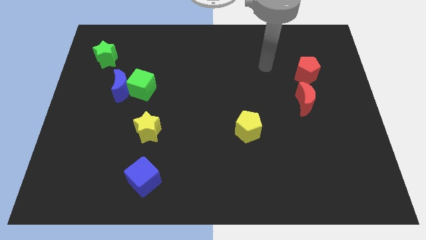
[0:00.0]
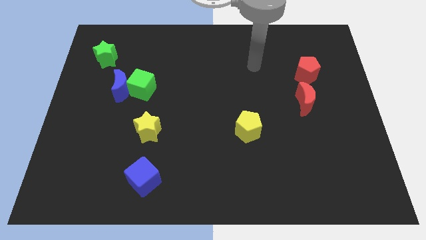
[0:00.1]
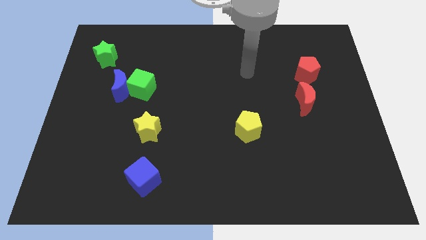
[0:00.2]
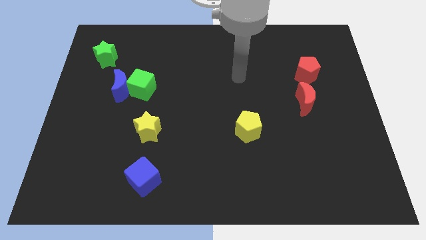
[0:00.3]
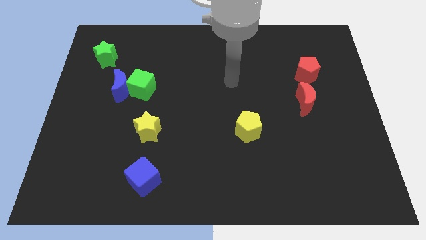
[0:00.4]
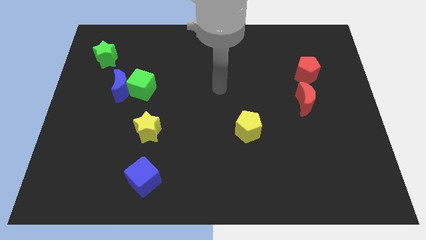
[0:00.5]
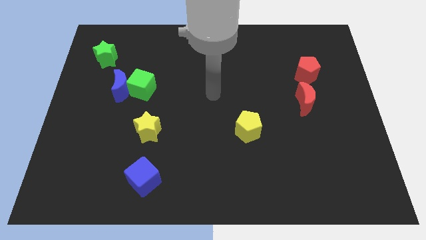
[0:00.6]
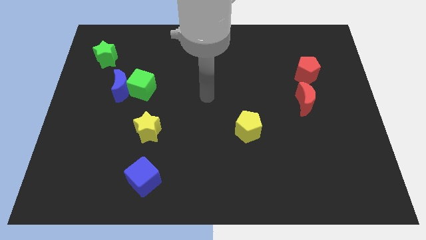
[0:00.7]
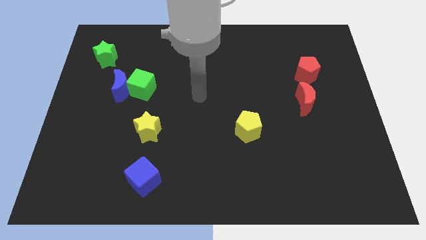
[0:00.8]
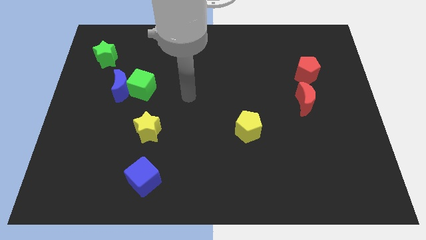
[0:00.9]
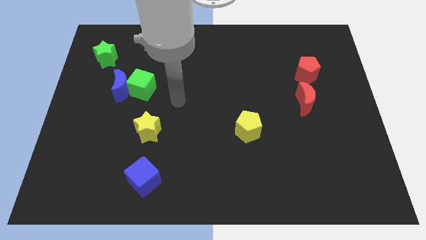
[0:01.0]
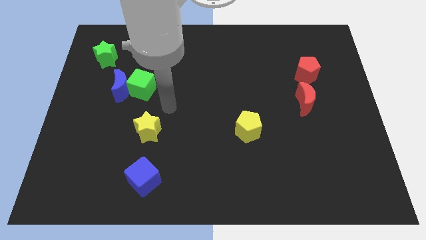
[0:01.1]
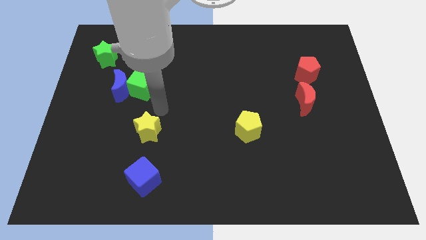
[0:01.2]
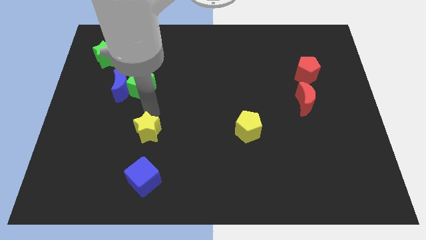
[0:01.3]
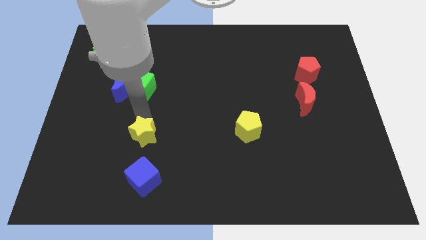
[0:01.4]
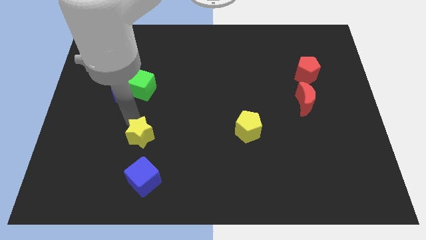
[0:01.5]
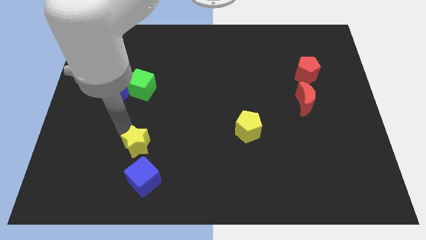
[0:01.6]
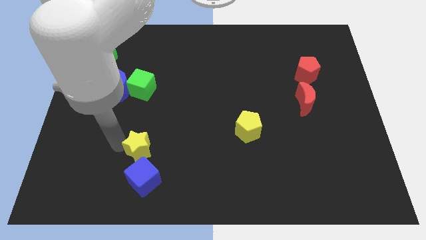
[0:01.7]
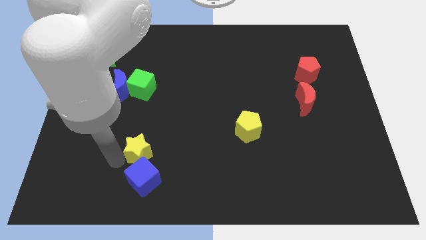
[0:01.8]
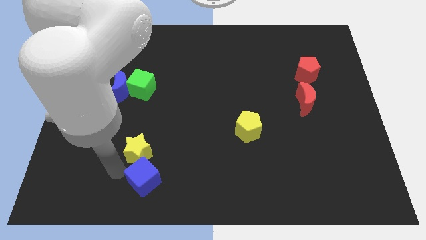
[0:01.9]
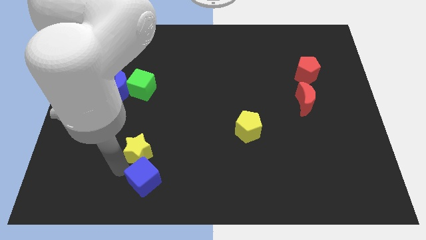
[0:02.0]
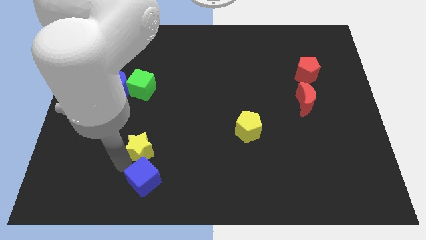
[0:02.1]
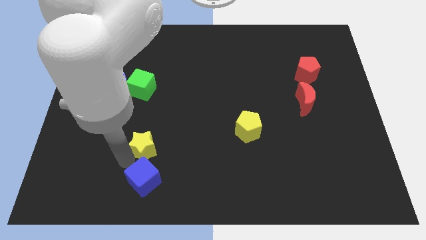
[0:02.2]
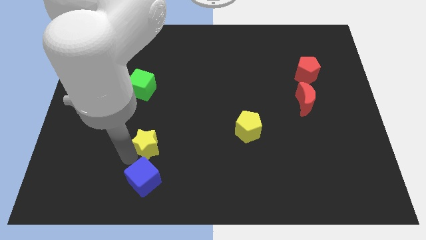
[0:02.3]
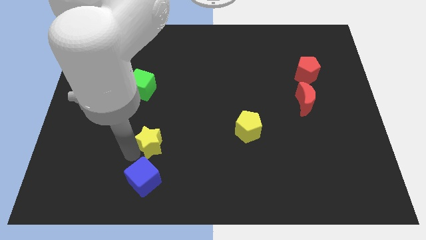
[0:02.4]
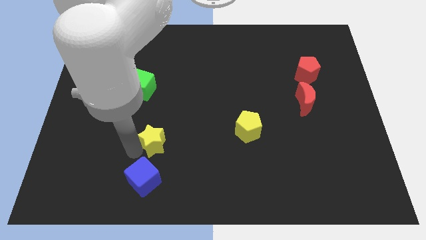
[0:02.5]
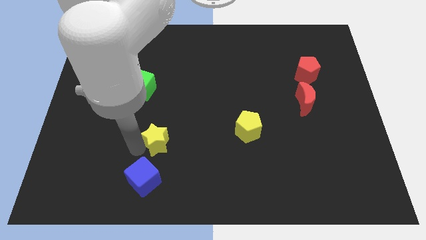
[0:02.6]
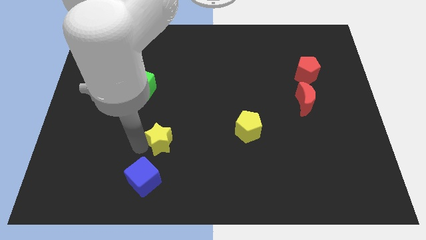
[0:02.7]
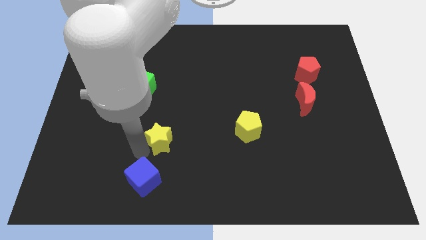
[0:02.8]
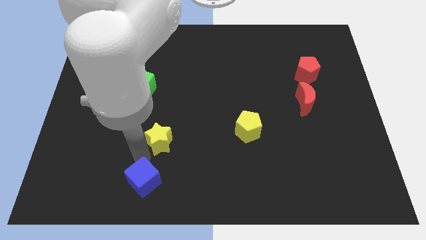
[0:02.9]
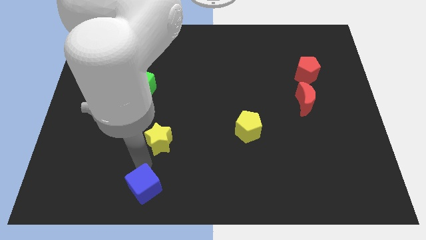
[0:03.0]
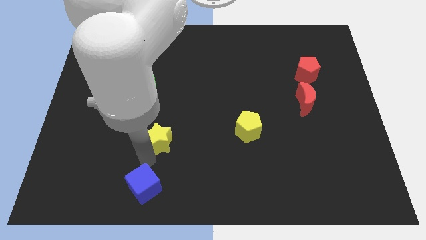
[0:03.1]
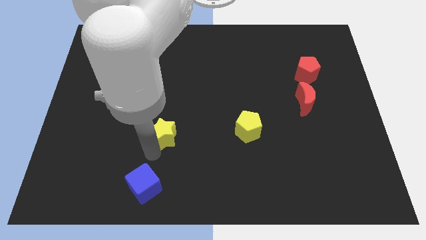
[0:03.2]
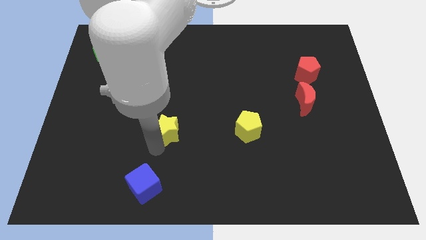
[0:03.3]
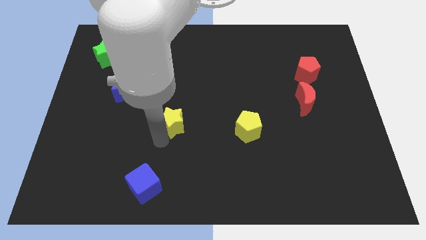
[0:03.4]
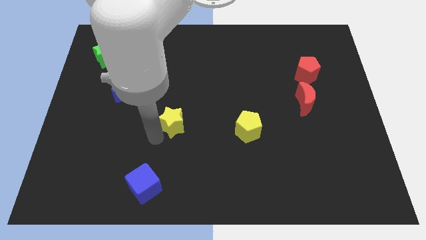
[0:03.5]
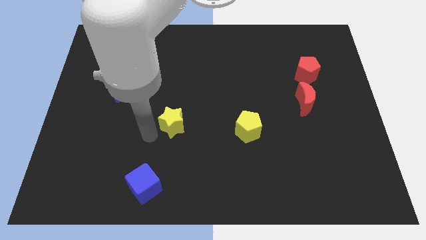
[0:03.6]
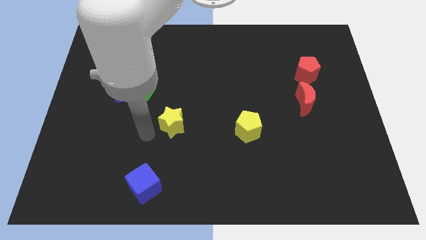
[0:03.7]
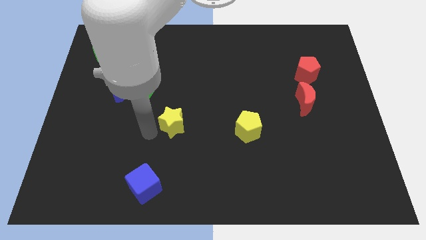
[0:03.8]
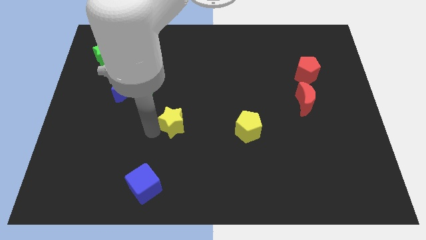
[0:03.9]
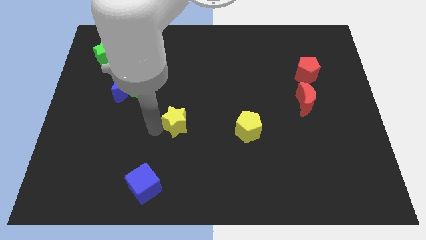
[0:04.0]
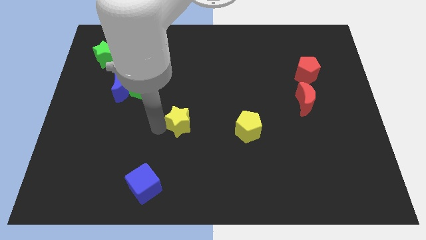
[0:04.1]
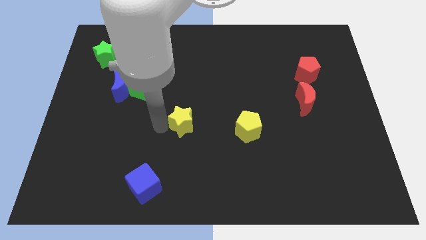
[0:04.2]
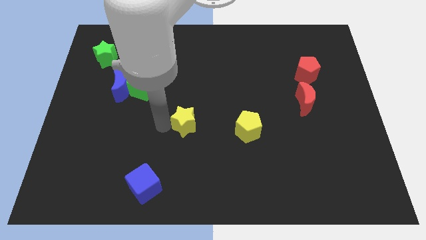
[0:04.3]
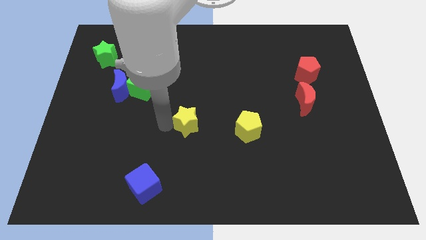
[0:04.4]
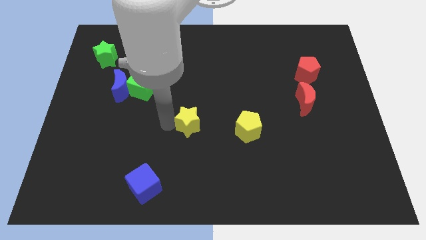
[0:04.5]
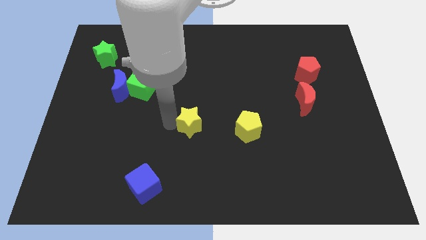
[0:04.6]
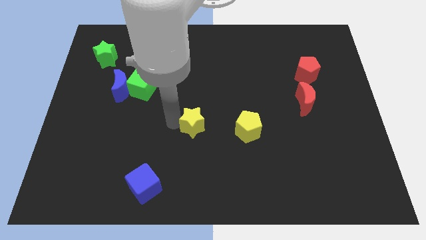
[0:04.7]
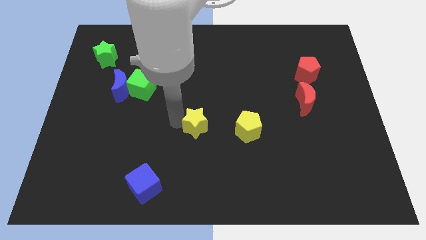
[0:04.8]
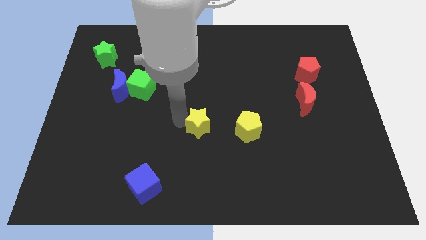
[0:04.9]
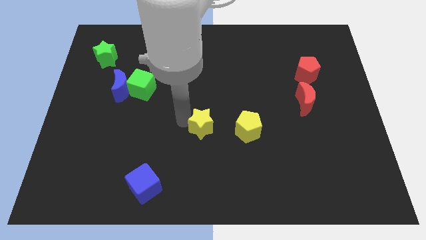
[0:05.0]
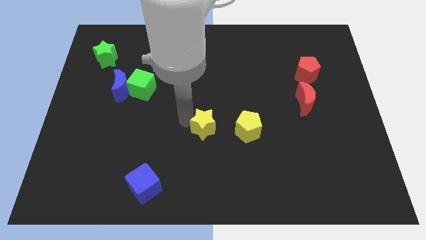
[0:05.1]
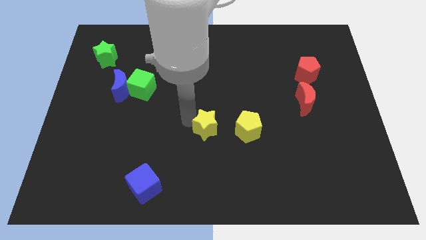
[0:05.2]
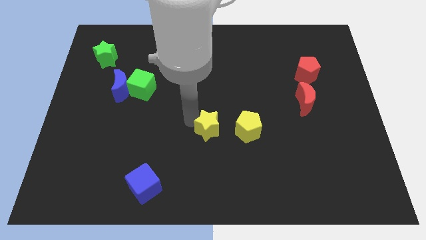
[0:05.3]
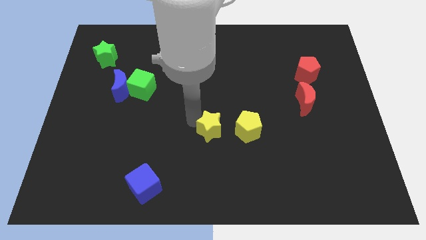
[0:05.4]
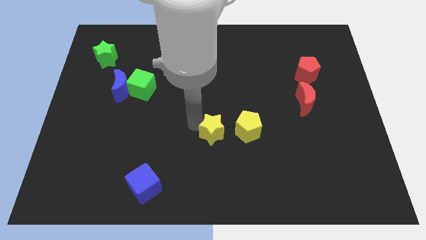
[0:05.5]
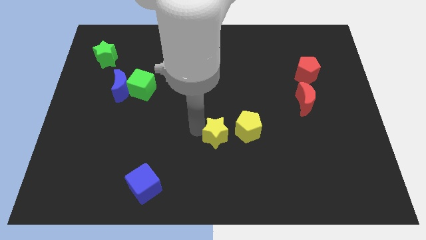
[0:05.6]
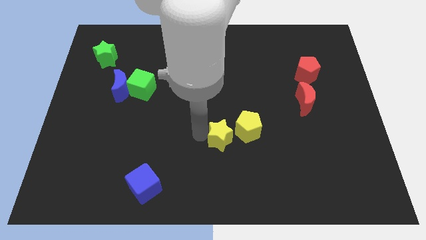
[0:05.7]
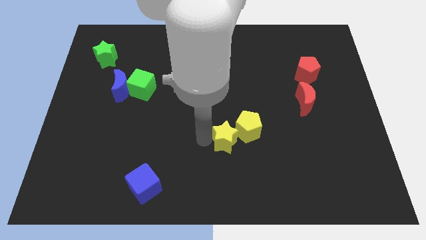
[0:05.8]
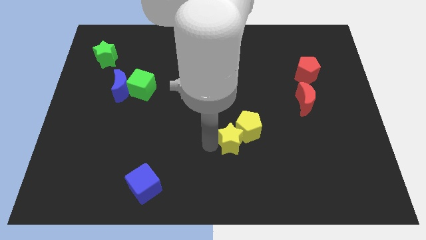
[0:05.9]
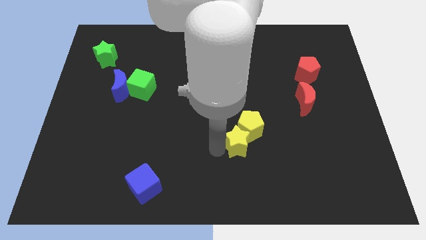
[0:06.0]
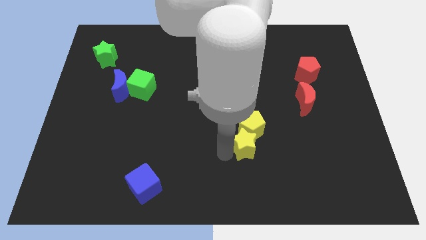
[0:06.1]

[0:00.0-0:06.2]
move the yellow star to the right

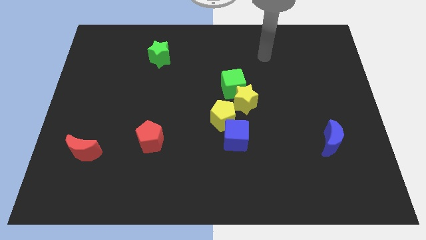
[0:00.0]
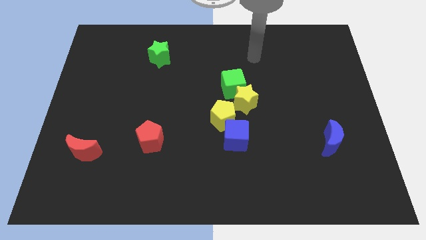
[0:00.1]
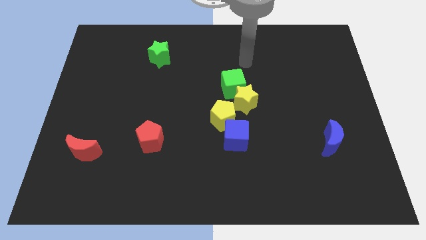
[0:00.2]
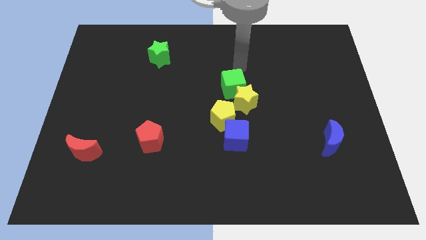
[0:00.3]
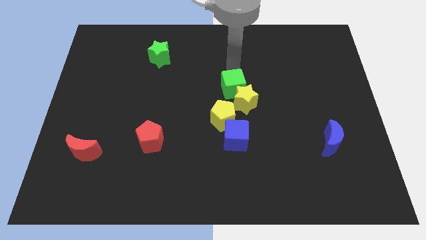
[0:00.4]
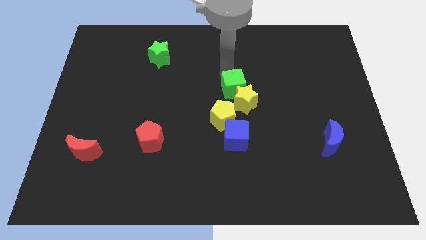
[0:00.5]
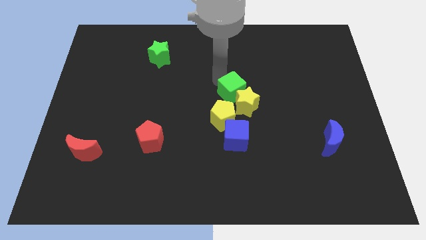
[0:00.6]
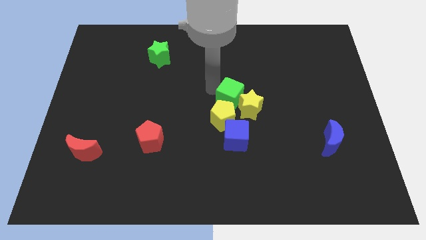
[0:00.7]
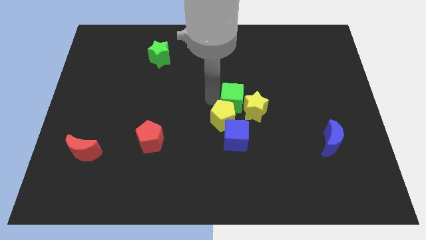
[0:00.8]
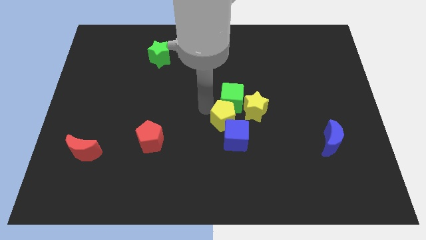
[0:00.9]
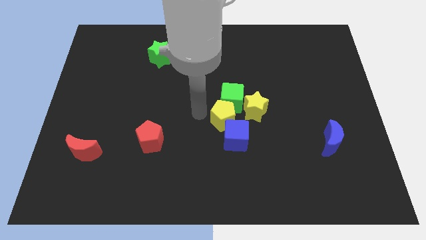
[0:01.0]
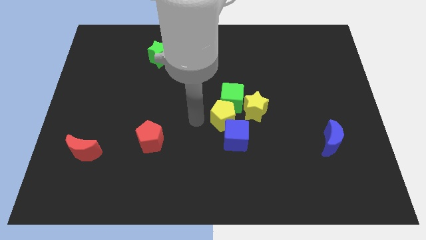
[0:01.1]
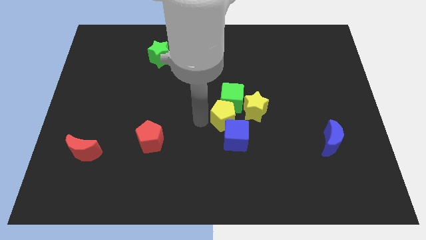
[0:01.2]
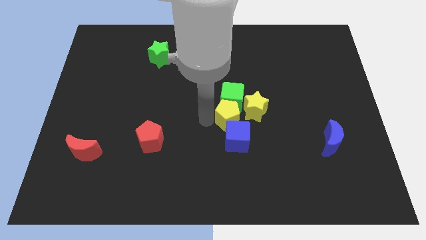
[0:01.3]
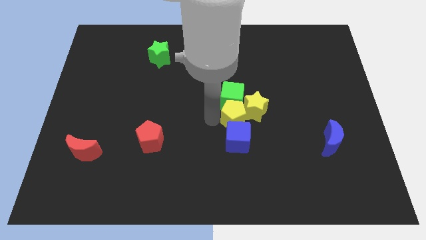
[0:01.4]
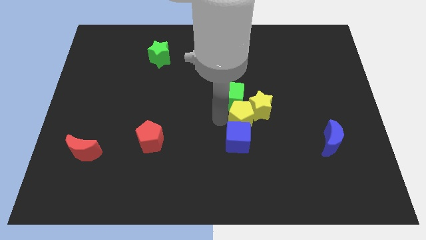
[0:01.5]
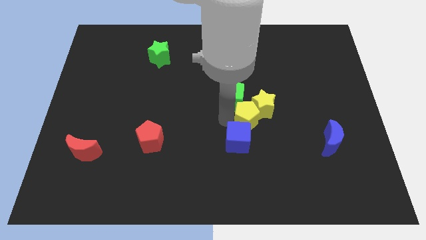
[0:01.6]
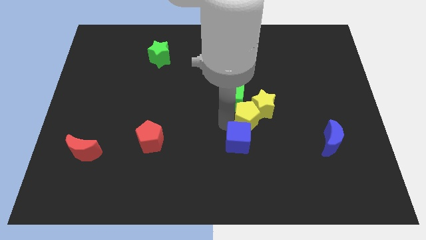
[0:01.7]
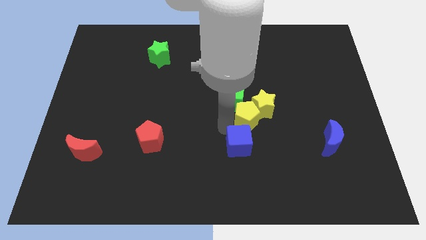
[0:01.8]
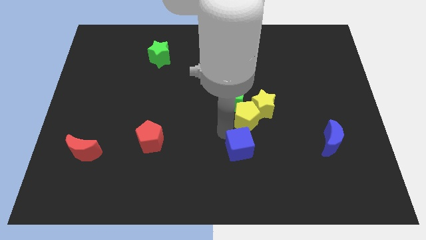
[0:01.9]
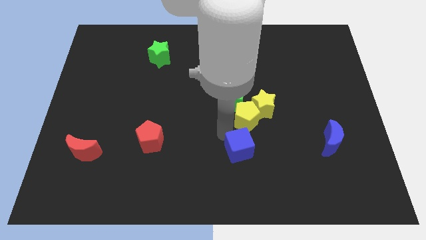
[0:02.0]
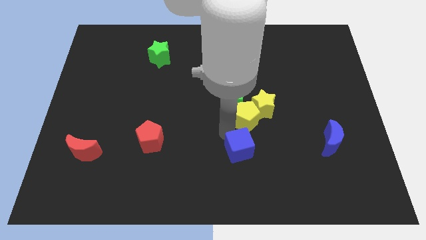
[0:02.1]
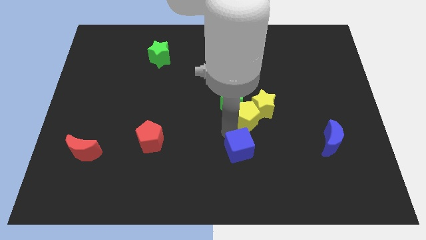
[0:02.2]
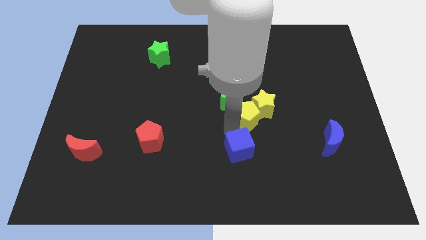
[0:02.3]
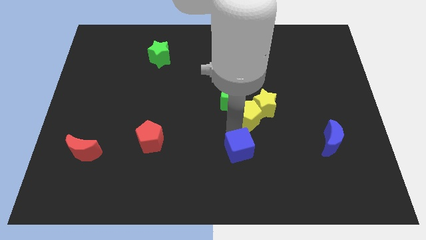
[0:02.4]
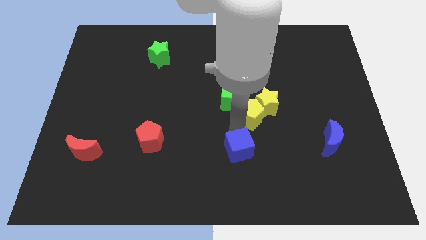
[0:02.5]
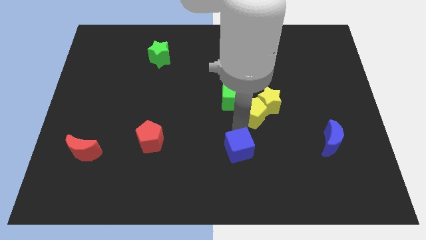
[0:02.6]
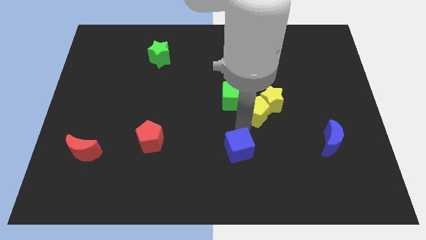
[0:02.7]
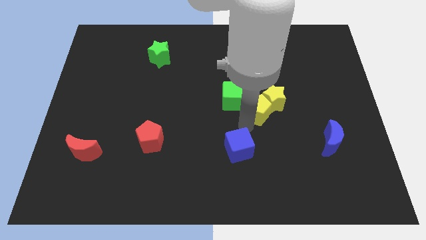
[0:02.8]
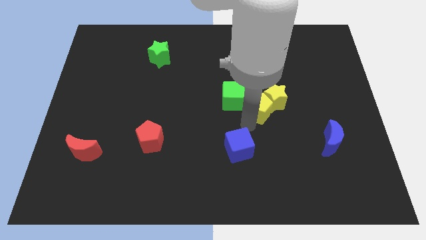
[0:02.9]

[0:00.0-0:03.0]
slightly slide the yellow pentagon up and right
